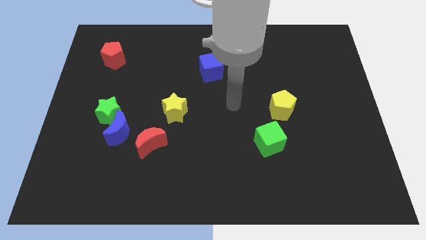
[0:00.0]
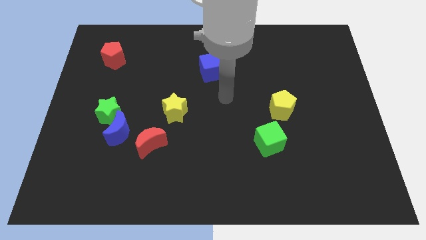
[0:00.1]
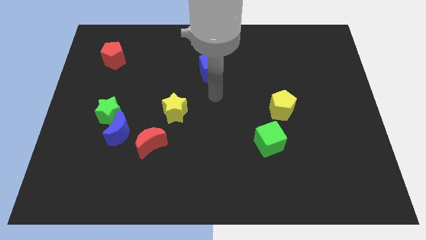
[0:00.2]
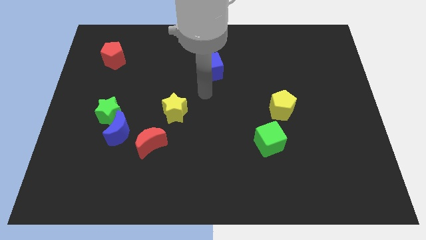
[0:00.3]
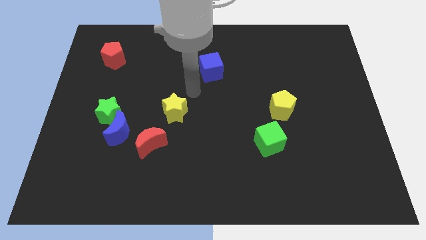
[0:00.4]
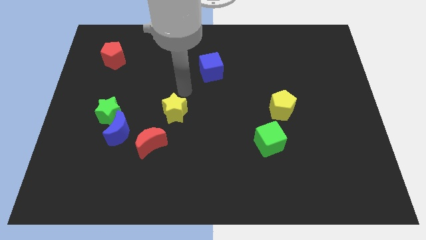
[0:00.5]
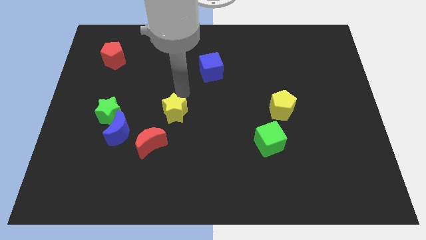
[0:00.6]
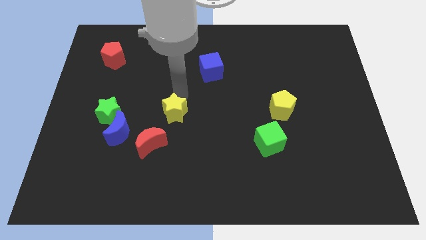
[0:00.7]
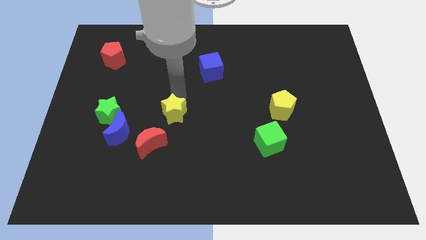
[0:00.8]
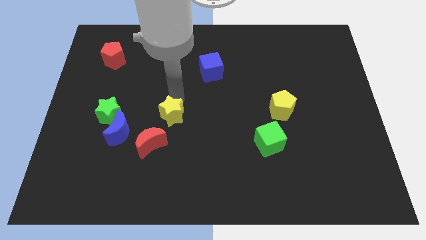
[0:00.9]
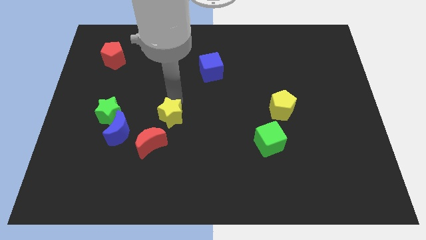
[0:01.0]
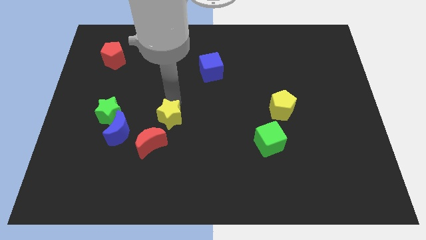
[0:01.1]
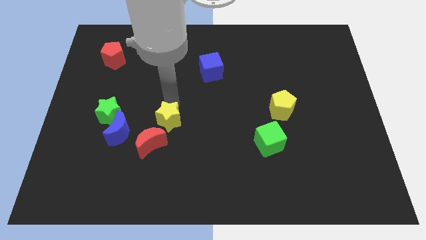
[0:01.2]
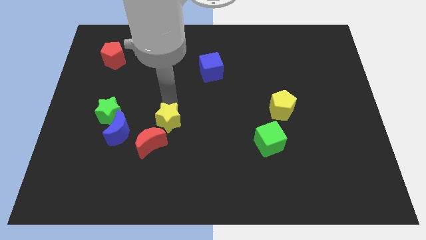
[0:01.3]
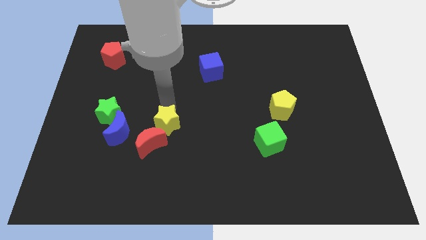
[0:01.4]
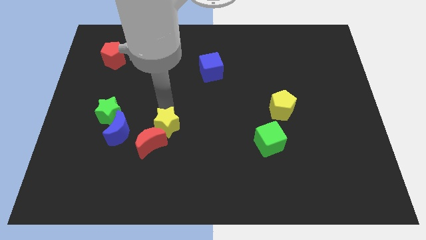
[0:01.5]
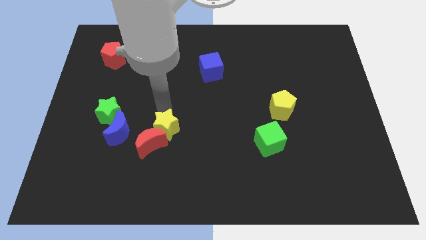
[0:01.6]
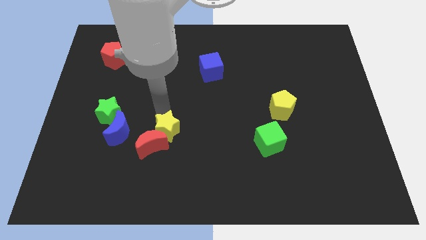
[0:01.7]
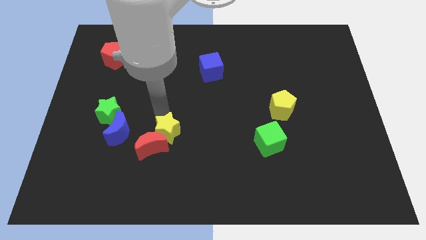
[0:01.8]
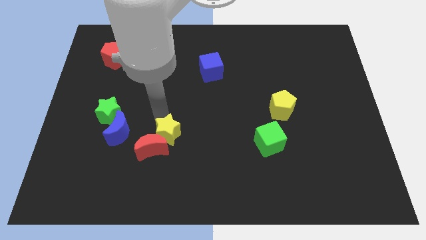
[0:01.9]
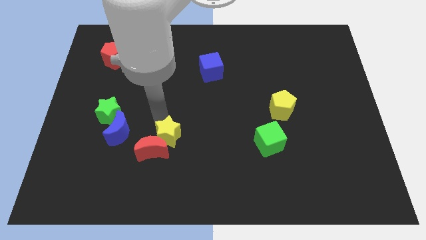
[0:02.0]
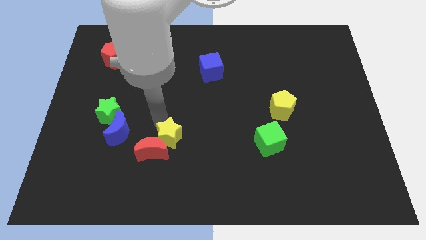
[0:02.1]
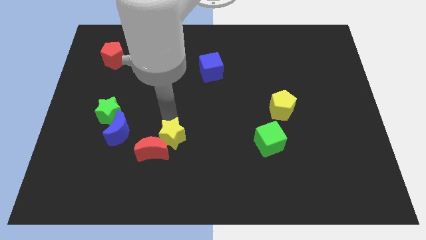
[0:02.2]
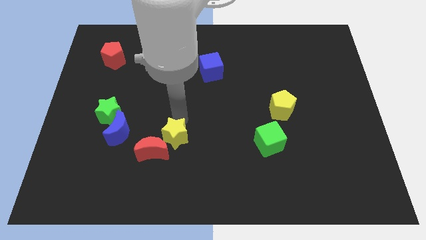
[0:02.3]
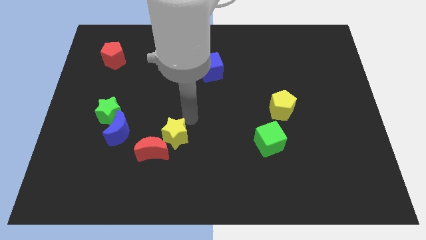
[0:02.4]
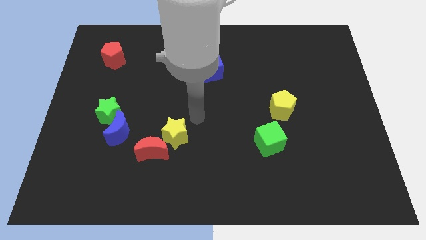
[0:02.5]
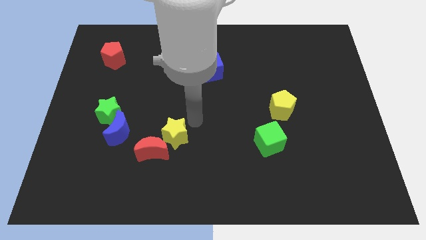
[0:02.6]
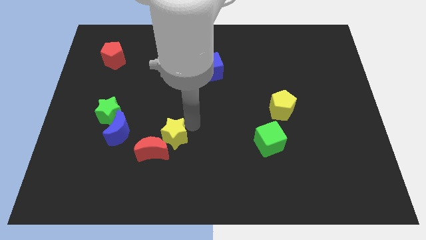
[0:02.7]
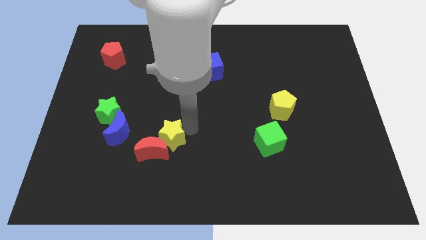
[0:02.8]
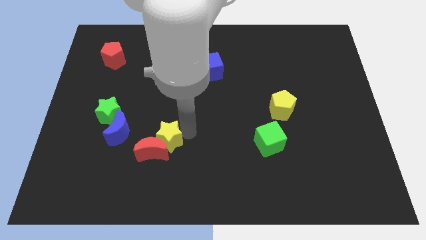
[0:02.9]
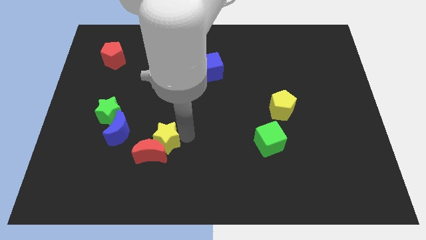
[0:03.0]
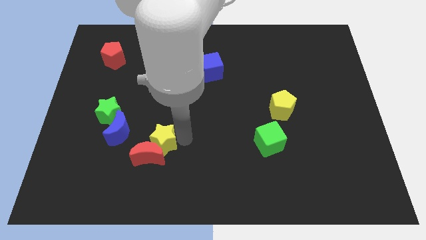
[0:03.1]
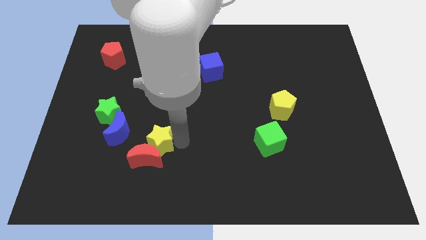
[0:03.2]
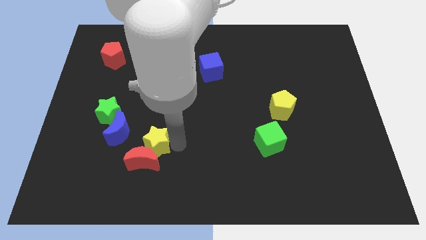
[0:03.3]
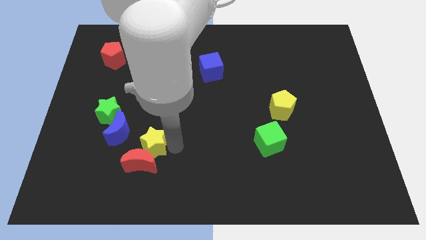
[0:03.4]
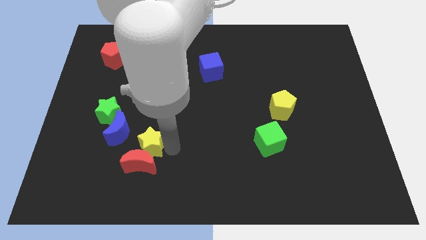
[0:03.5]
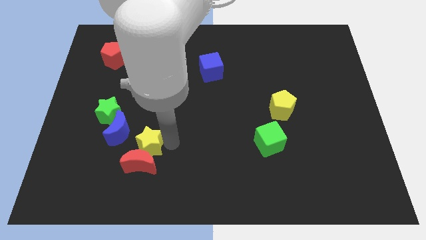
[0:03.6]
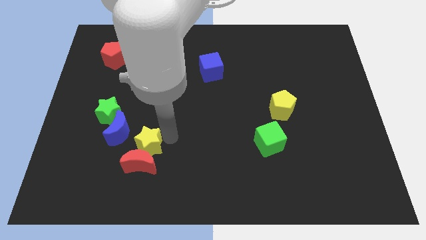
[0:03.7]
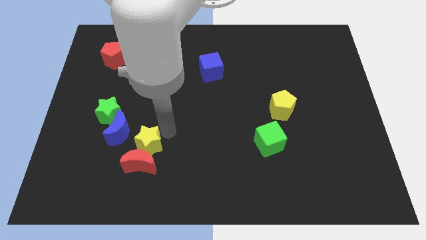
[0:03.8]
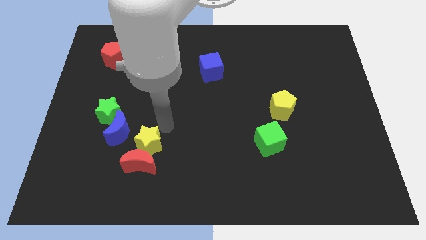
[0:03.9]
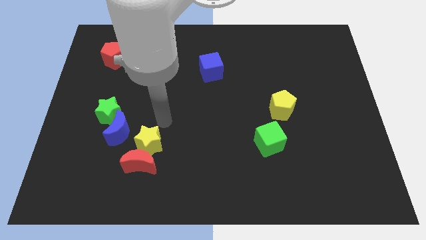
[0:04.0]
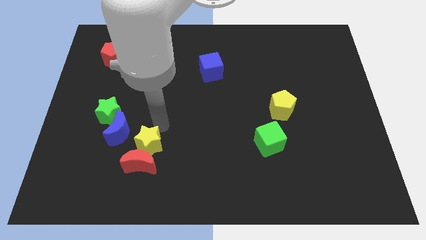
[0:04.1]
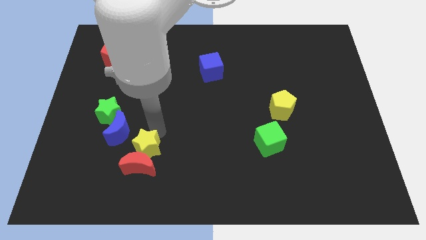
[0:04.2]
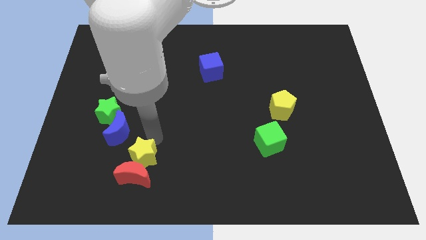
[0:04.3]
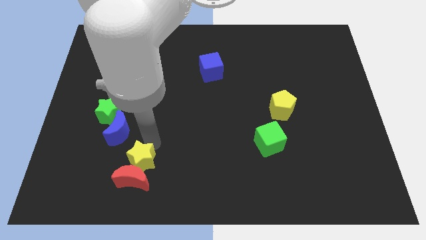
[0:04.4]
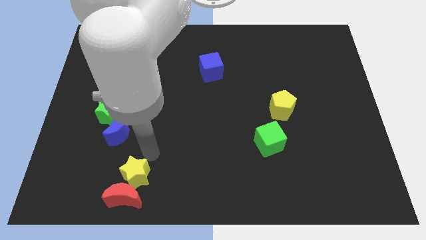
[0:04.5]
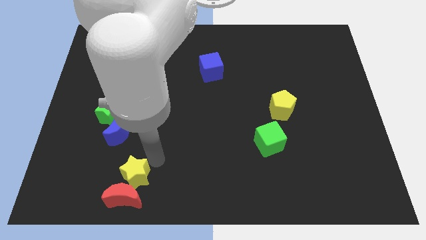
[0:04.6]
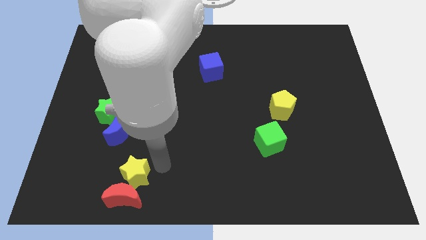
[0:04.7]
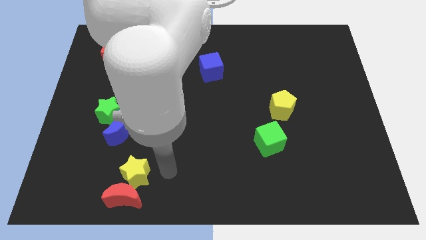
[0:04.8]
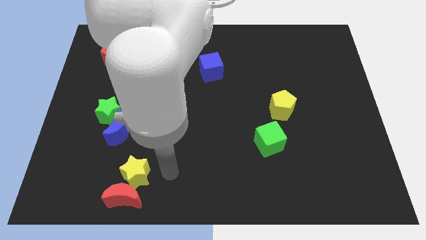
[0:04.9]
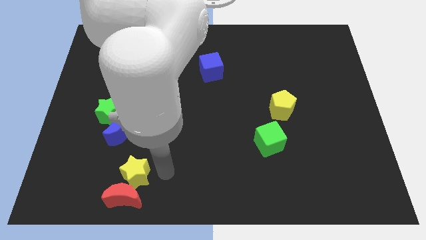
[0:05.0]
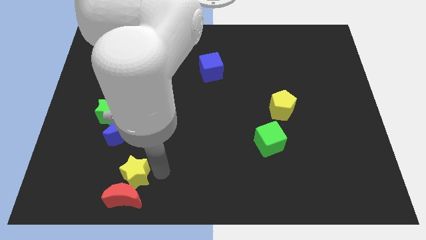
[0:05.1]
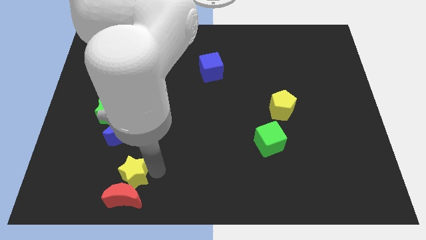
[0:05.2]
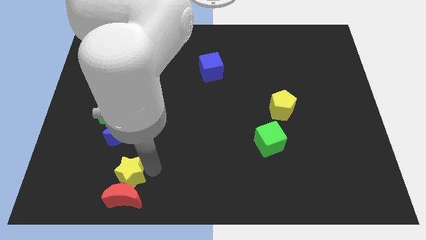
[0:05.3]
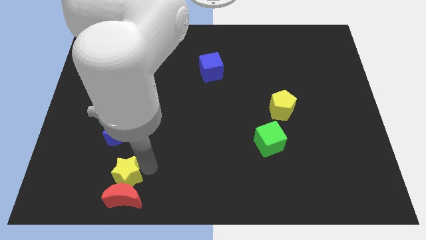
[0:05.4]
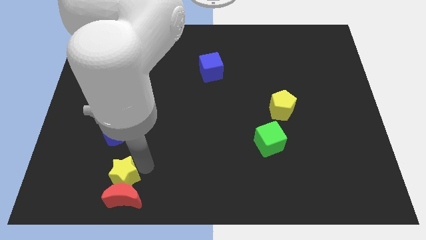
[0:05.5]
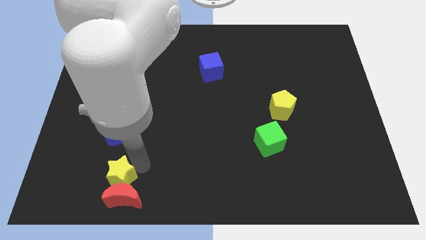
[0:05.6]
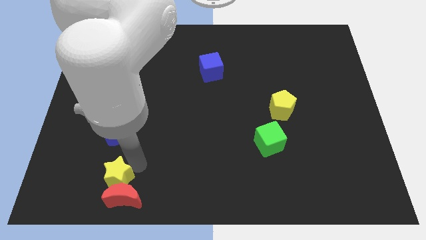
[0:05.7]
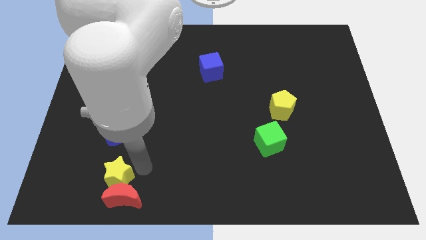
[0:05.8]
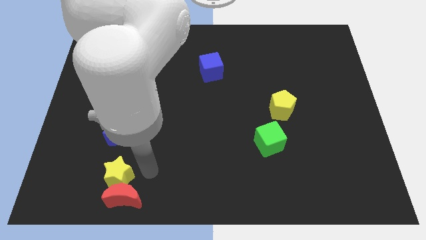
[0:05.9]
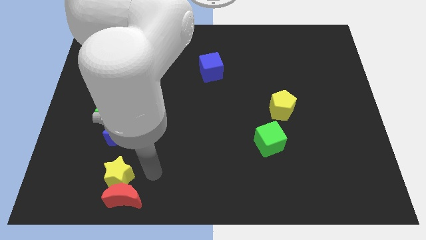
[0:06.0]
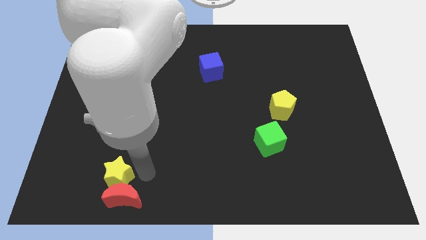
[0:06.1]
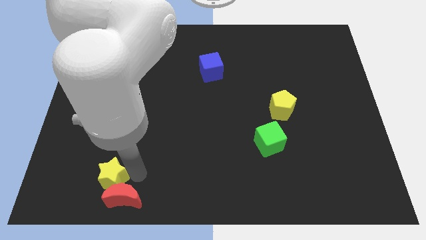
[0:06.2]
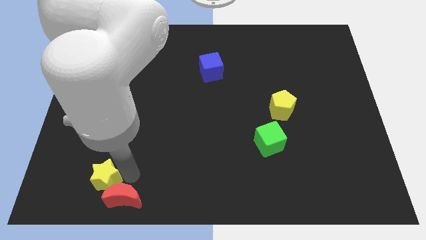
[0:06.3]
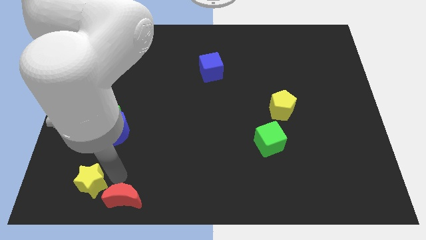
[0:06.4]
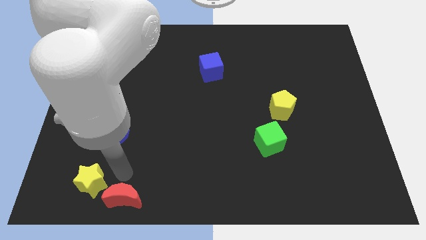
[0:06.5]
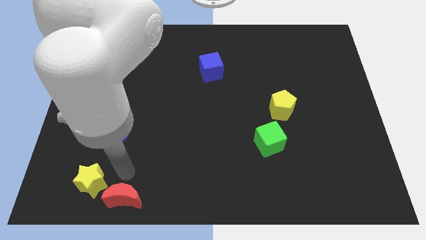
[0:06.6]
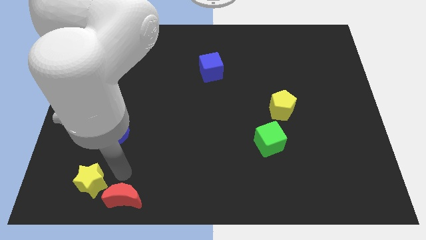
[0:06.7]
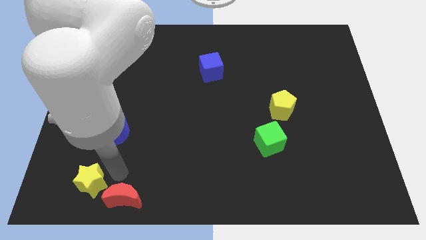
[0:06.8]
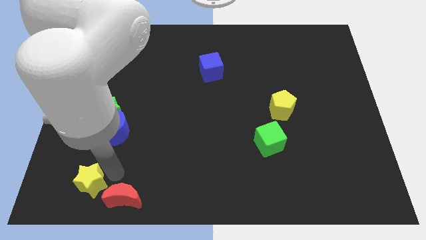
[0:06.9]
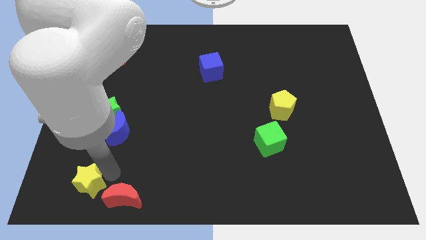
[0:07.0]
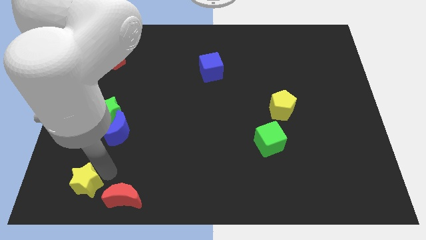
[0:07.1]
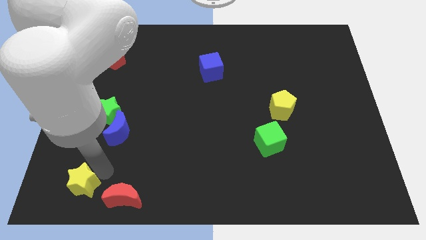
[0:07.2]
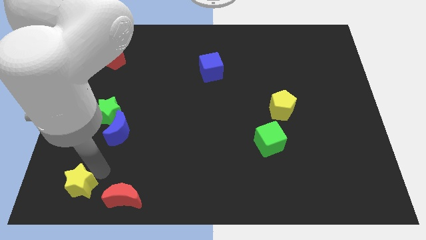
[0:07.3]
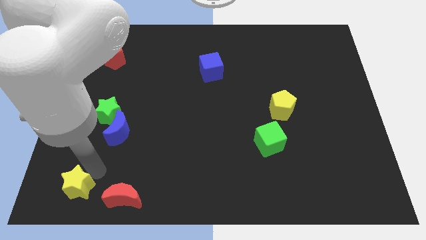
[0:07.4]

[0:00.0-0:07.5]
put the yellow star to the bottom left
